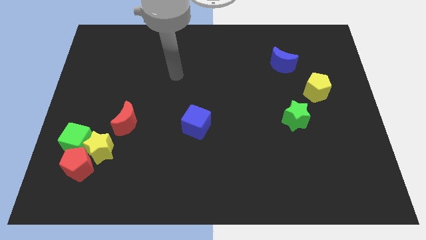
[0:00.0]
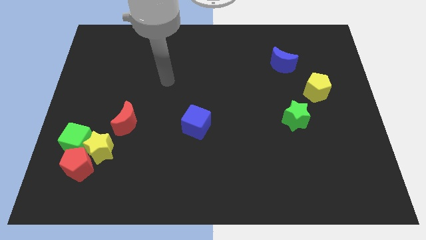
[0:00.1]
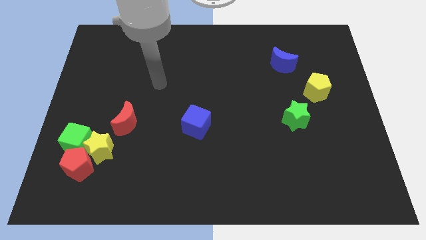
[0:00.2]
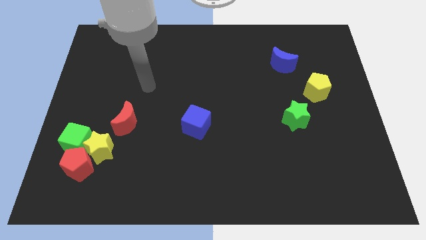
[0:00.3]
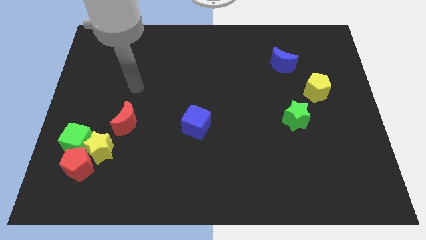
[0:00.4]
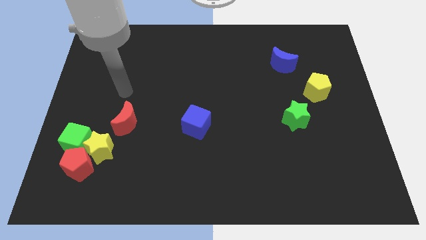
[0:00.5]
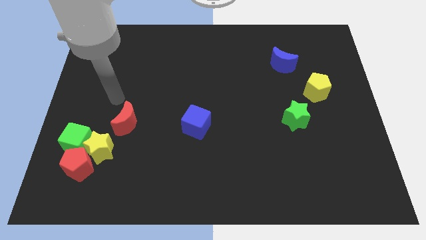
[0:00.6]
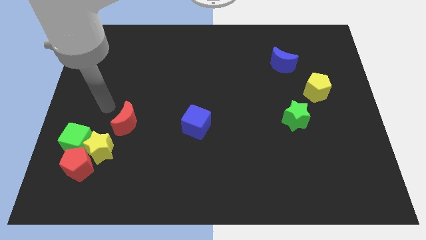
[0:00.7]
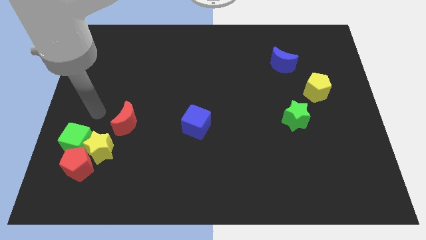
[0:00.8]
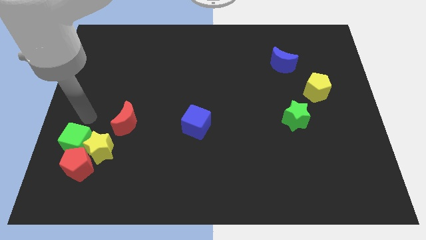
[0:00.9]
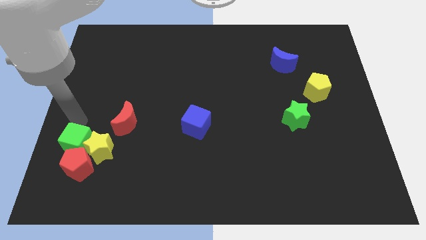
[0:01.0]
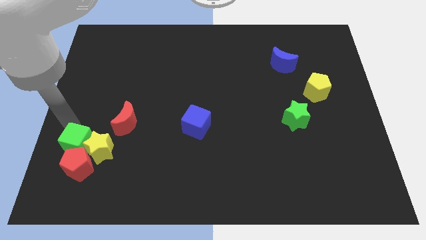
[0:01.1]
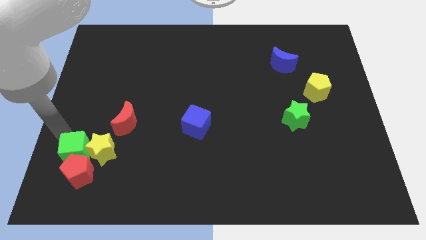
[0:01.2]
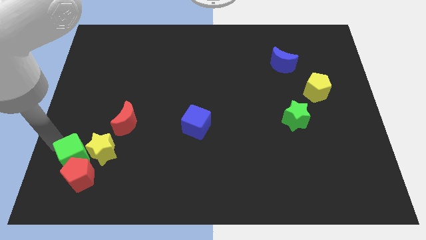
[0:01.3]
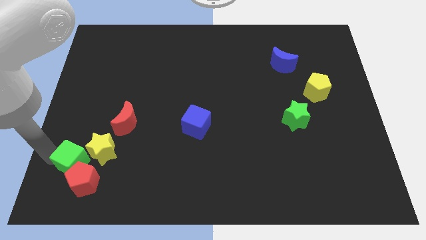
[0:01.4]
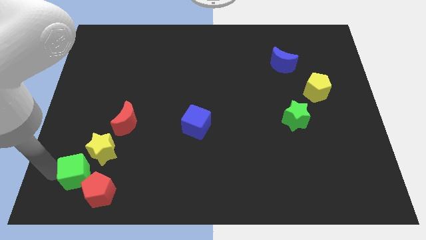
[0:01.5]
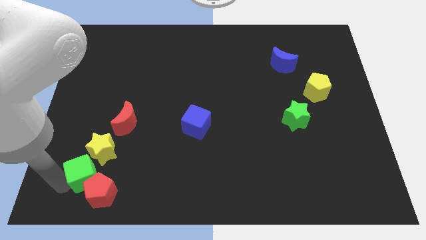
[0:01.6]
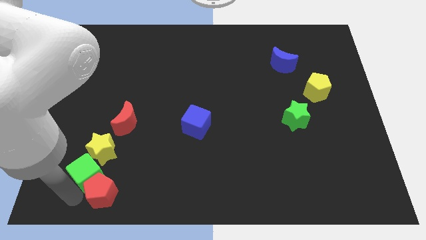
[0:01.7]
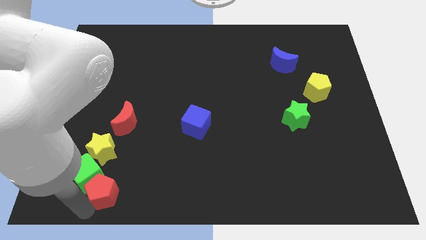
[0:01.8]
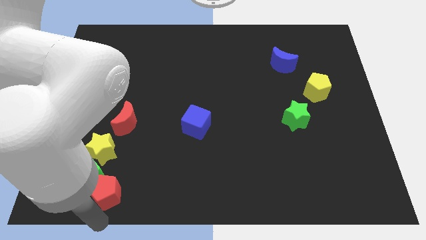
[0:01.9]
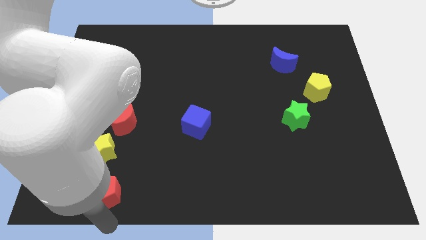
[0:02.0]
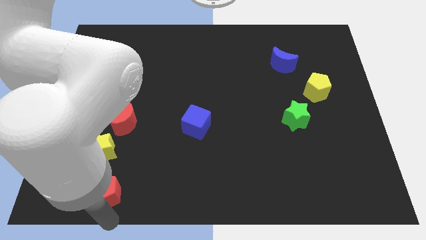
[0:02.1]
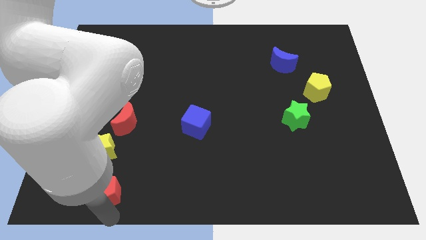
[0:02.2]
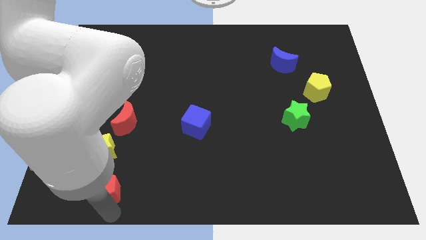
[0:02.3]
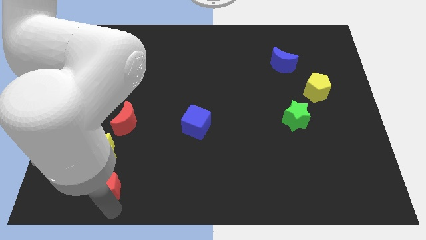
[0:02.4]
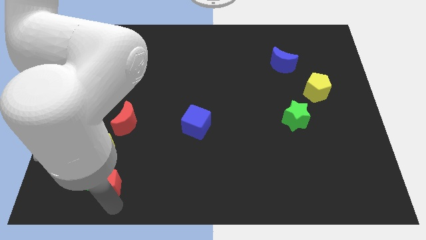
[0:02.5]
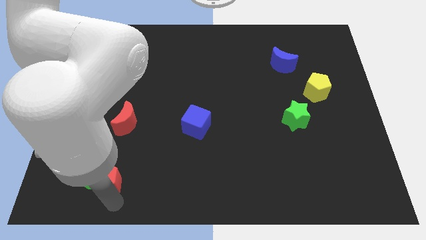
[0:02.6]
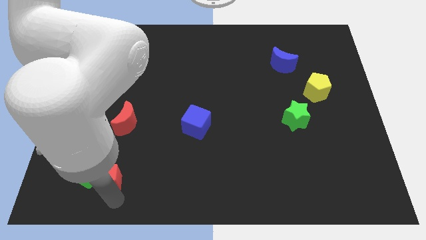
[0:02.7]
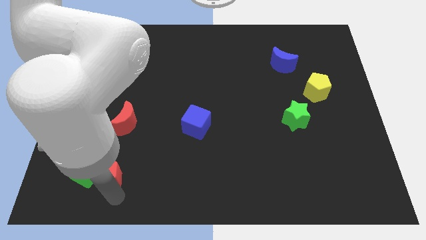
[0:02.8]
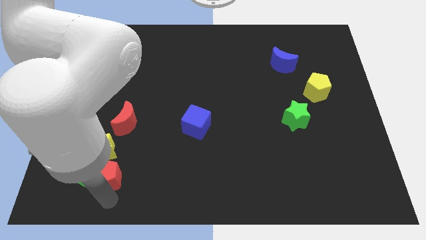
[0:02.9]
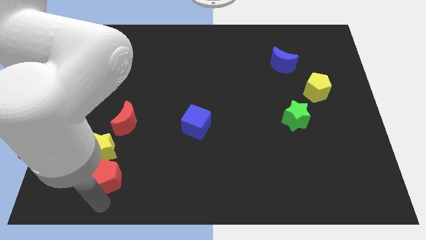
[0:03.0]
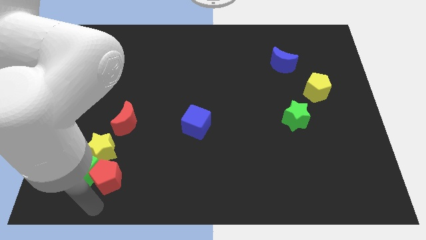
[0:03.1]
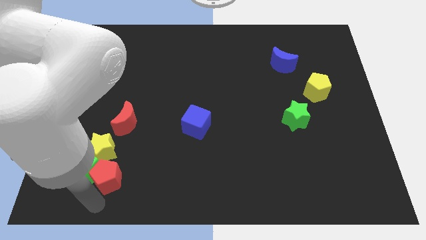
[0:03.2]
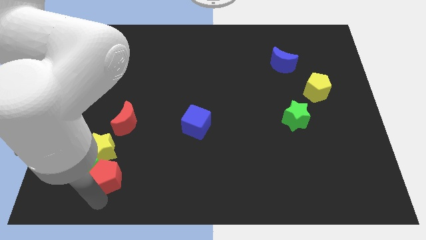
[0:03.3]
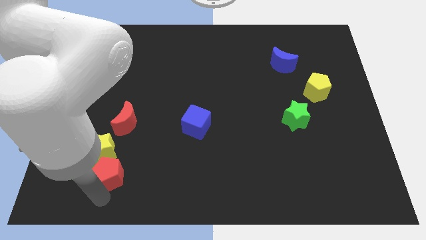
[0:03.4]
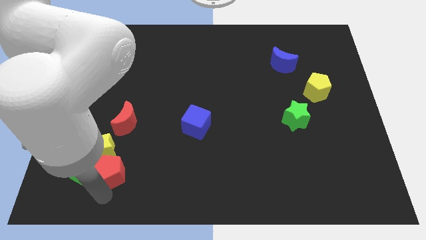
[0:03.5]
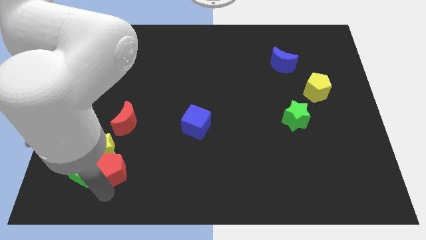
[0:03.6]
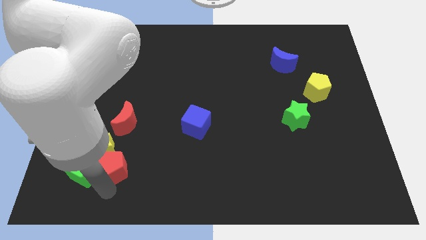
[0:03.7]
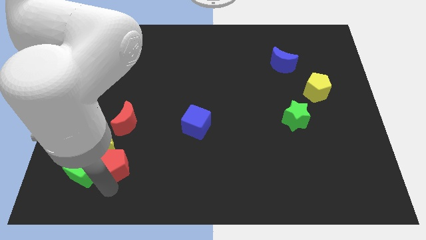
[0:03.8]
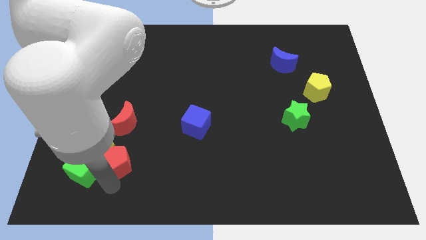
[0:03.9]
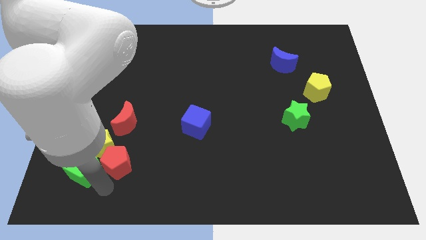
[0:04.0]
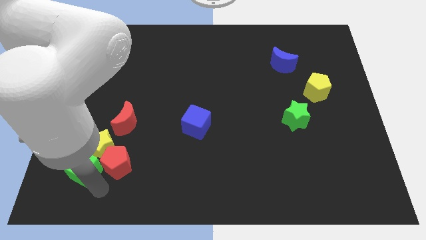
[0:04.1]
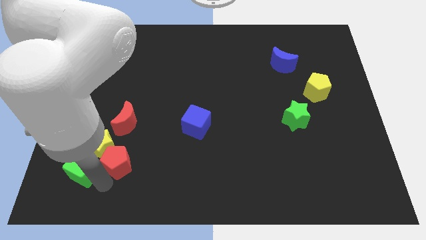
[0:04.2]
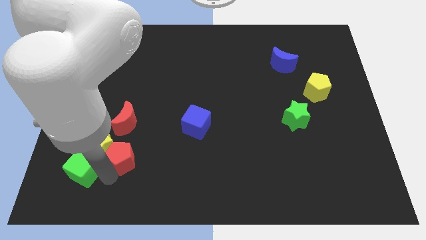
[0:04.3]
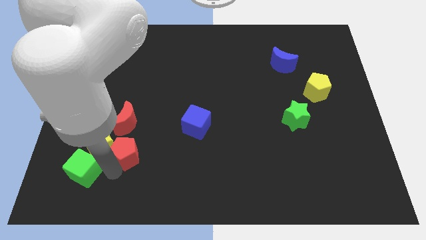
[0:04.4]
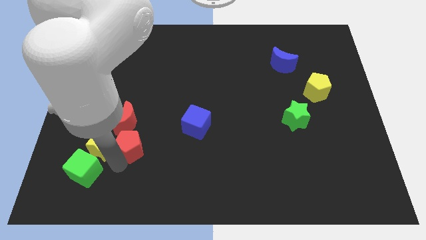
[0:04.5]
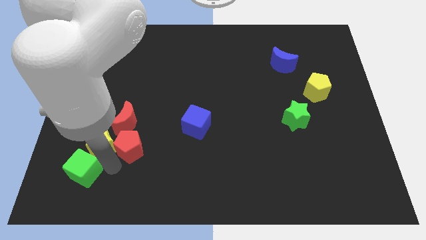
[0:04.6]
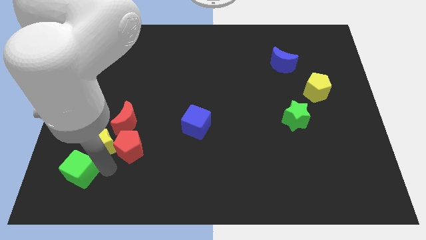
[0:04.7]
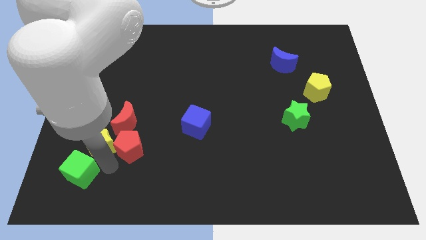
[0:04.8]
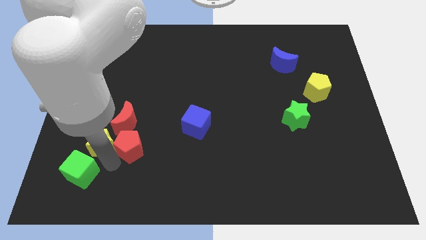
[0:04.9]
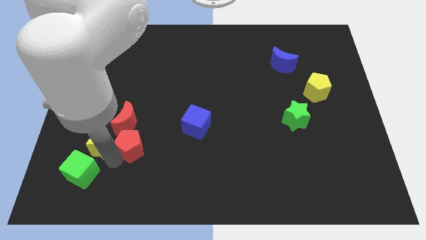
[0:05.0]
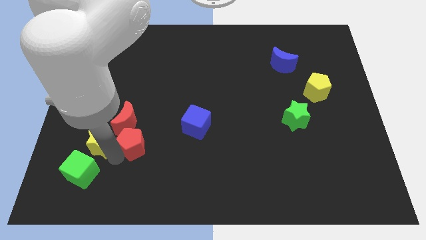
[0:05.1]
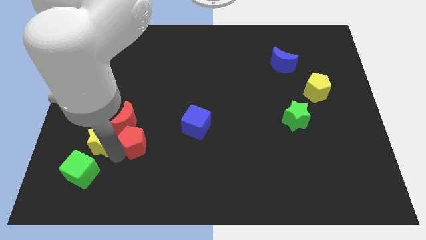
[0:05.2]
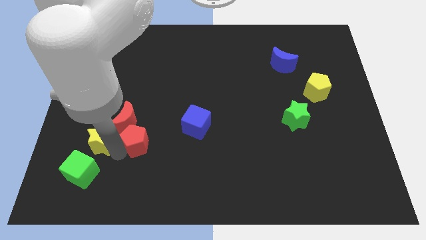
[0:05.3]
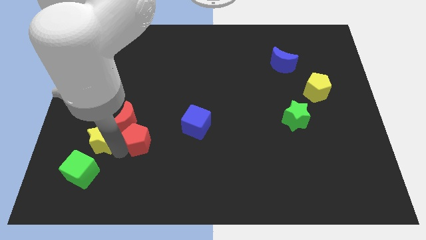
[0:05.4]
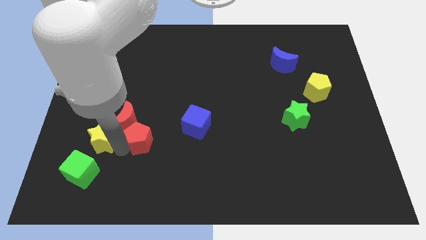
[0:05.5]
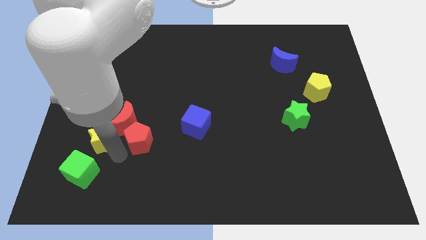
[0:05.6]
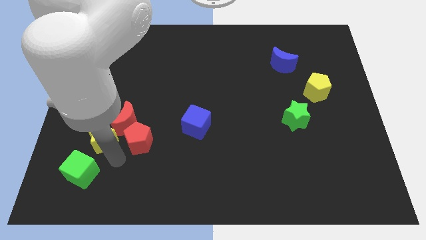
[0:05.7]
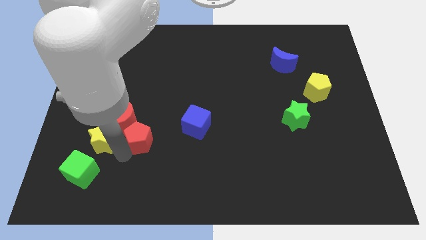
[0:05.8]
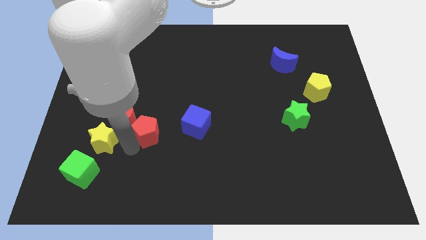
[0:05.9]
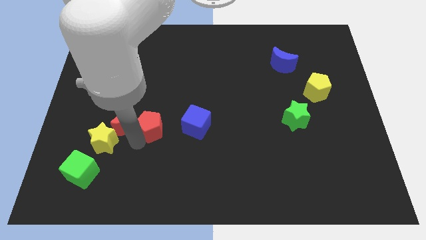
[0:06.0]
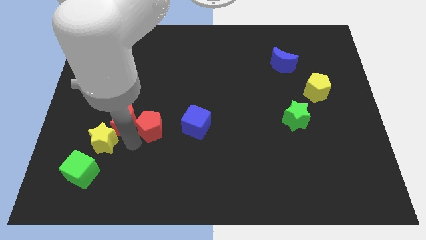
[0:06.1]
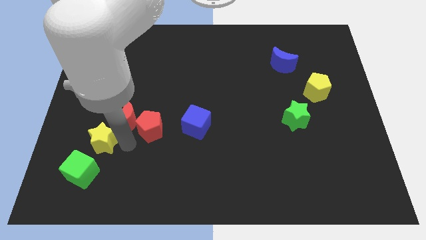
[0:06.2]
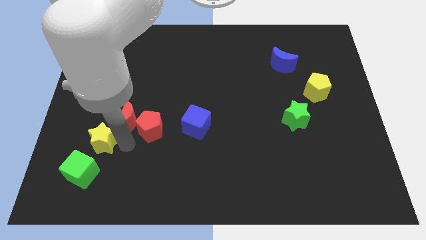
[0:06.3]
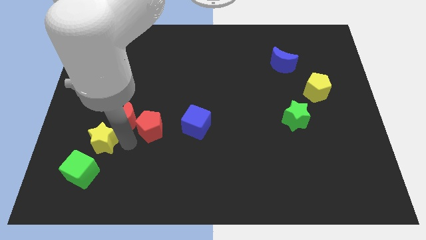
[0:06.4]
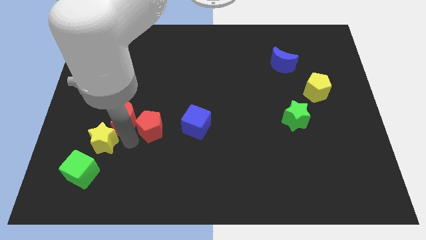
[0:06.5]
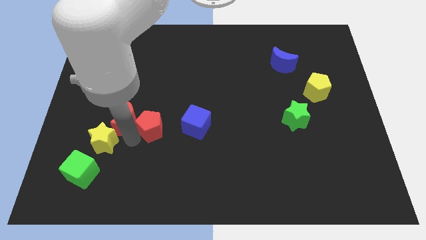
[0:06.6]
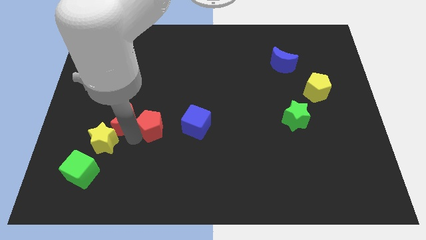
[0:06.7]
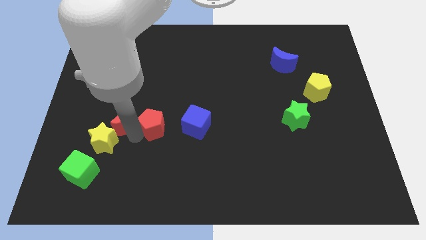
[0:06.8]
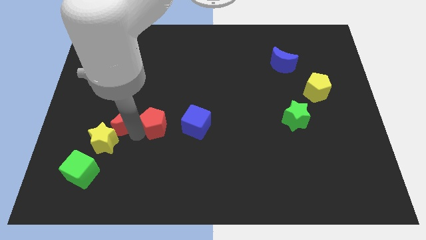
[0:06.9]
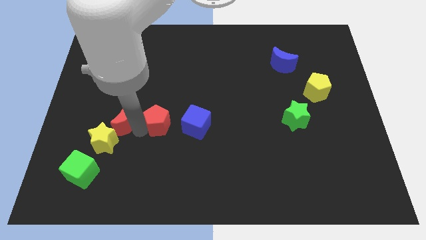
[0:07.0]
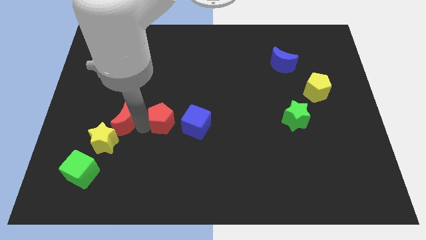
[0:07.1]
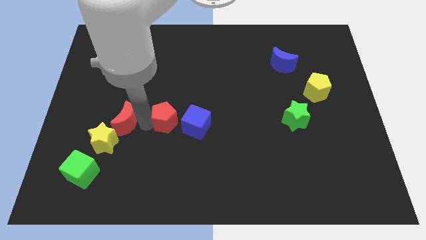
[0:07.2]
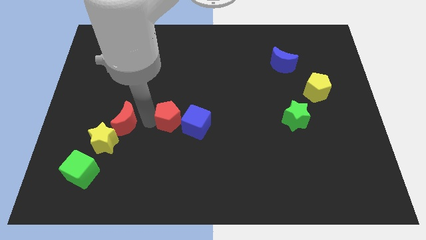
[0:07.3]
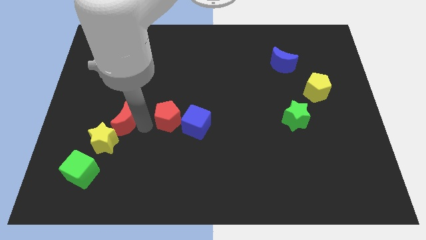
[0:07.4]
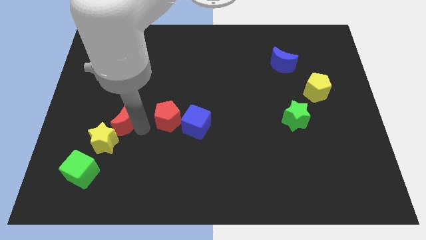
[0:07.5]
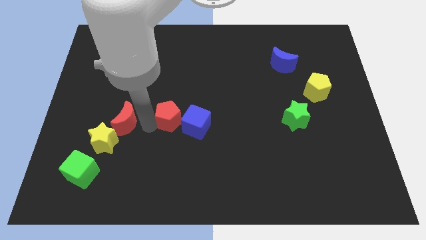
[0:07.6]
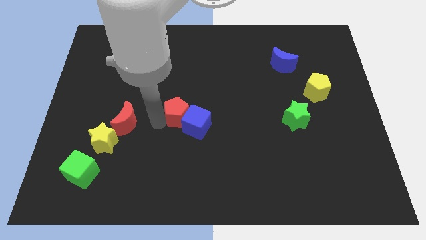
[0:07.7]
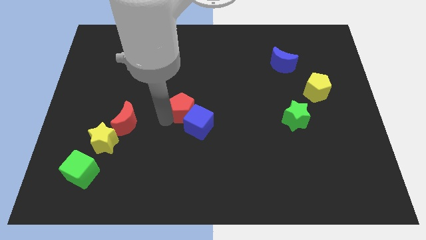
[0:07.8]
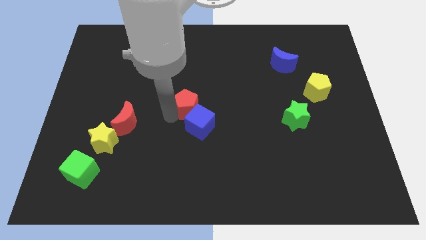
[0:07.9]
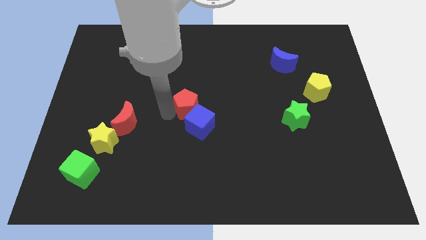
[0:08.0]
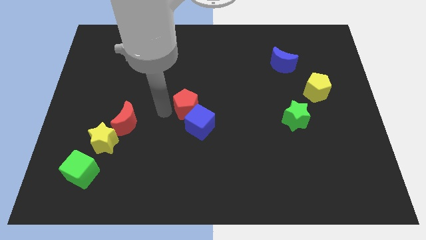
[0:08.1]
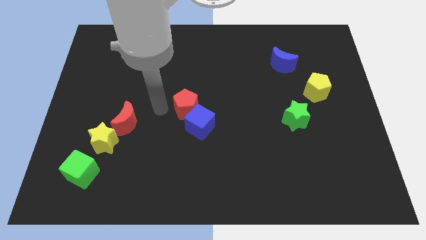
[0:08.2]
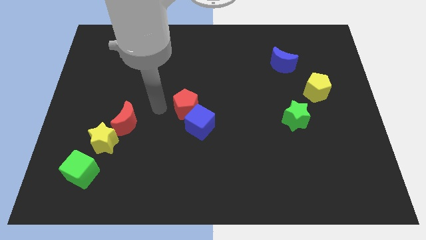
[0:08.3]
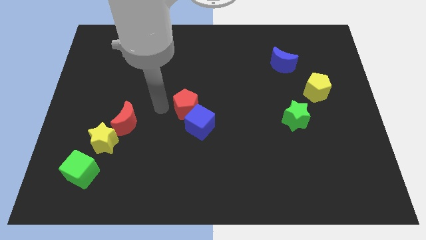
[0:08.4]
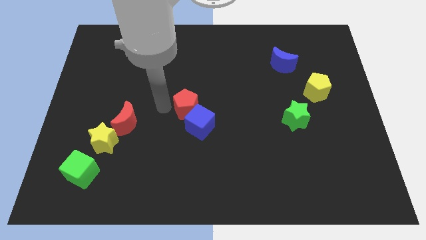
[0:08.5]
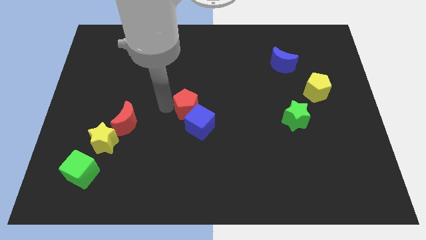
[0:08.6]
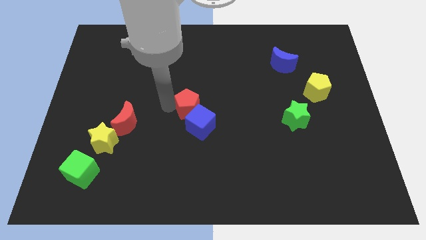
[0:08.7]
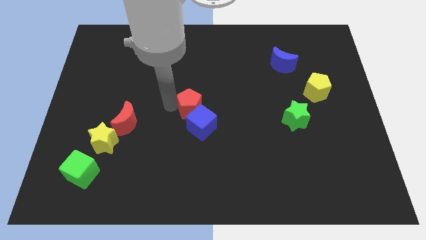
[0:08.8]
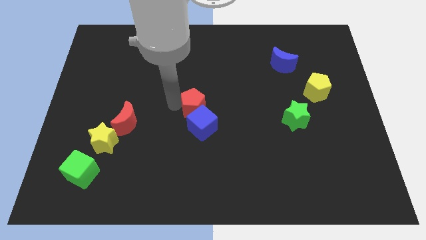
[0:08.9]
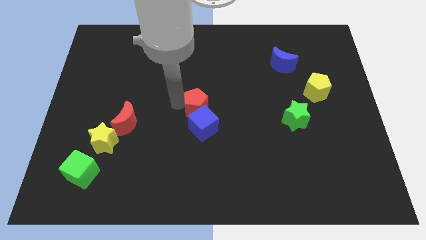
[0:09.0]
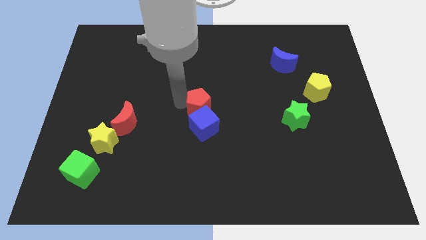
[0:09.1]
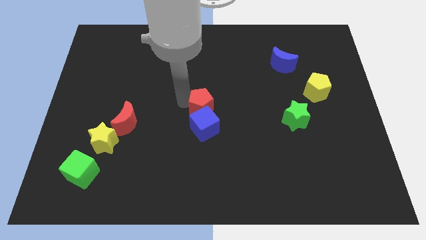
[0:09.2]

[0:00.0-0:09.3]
move the red pentagon diagonally up and to the right of the blue cube
